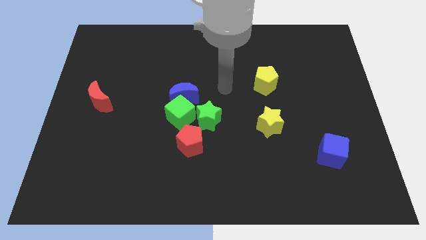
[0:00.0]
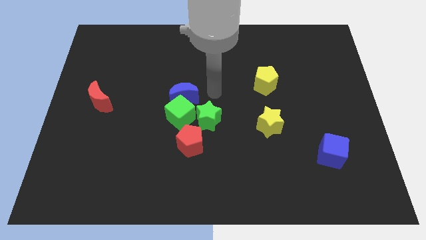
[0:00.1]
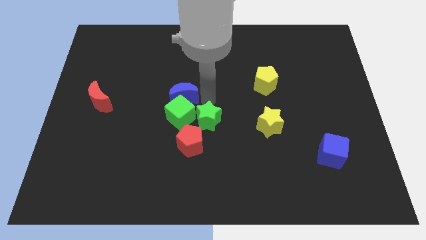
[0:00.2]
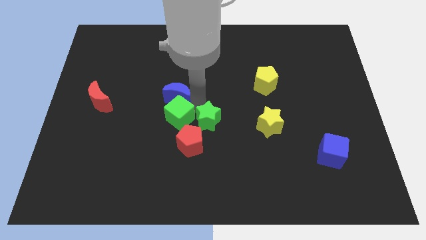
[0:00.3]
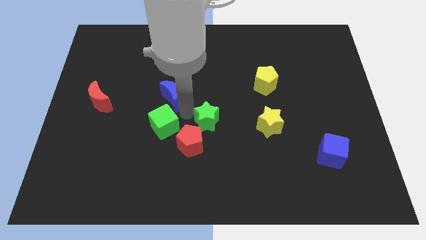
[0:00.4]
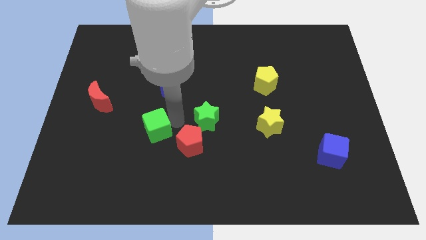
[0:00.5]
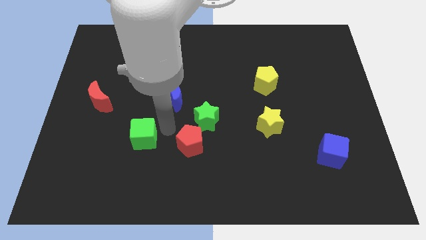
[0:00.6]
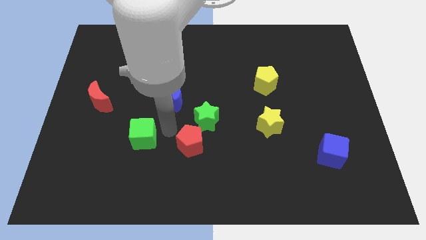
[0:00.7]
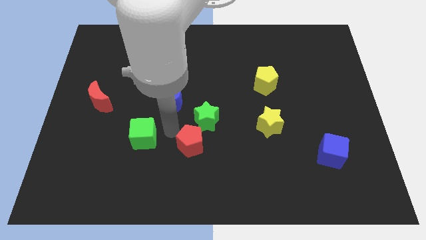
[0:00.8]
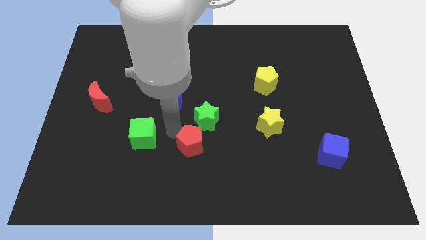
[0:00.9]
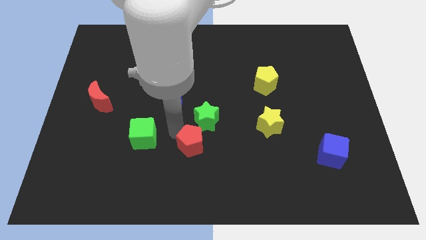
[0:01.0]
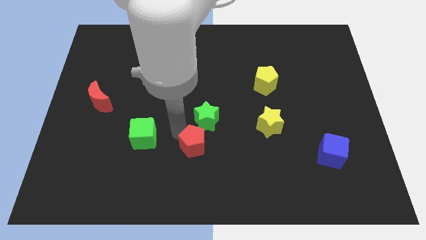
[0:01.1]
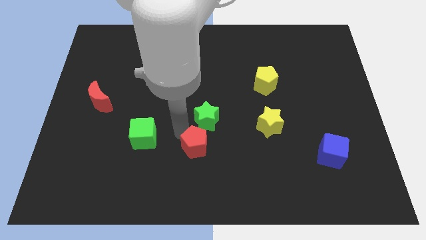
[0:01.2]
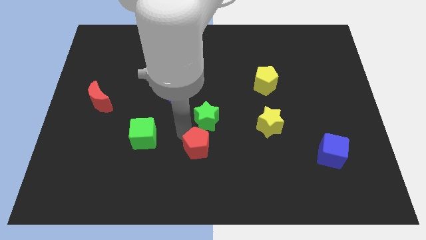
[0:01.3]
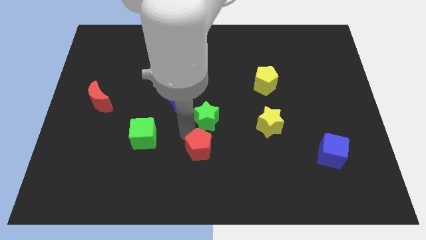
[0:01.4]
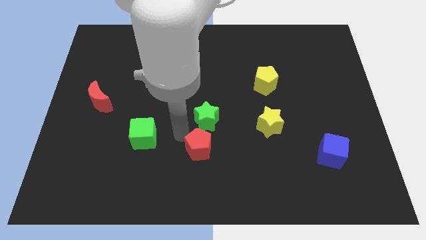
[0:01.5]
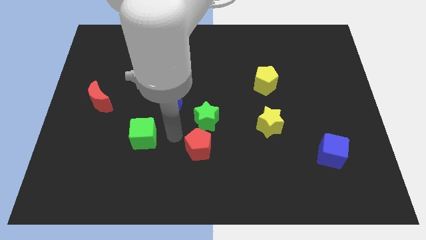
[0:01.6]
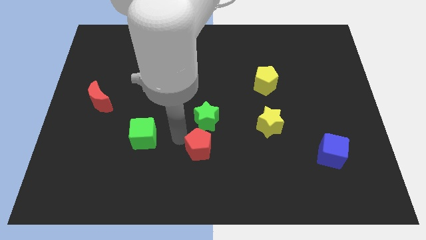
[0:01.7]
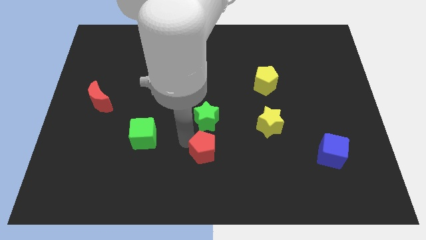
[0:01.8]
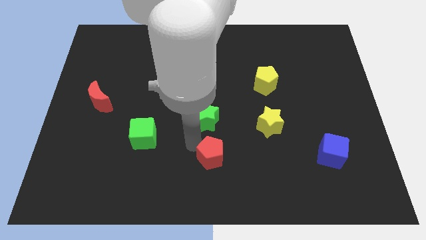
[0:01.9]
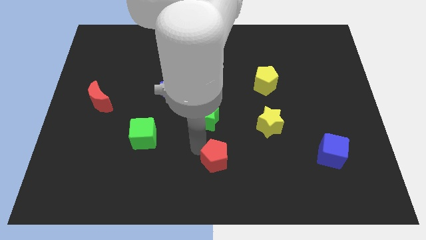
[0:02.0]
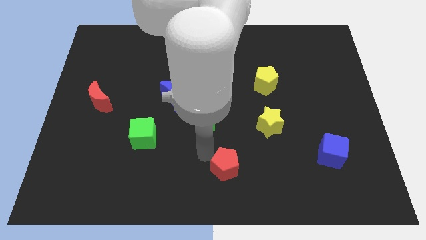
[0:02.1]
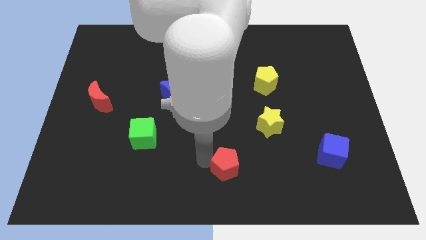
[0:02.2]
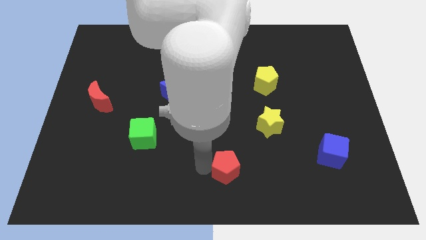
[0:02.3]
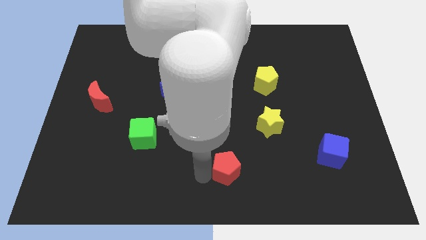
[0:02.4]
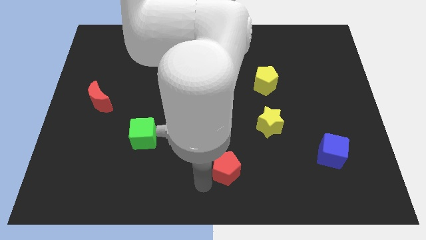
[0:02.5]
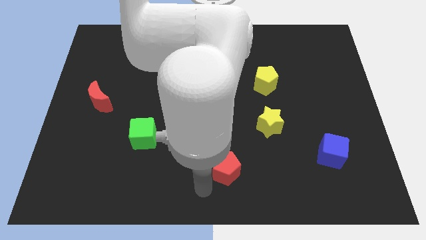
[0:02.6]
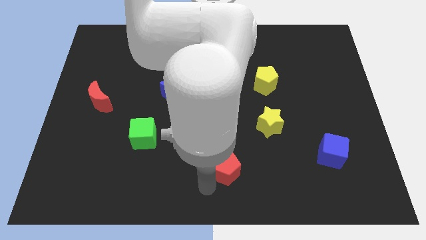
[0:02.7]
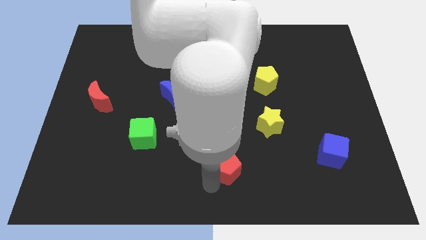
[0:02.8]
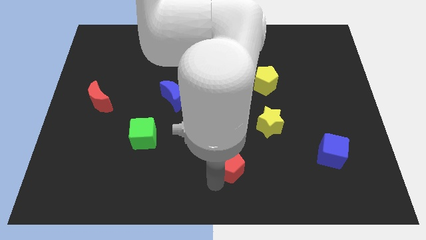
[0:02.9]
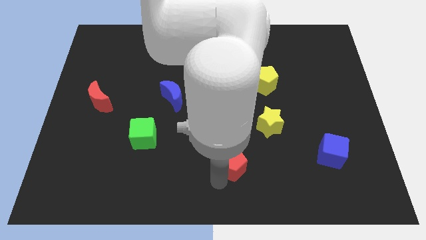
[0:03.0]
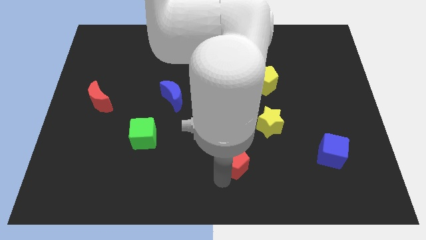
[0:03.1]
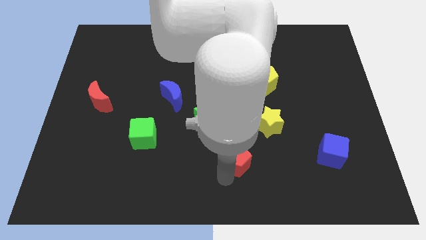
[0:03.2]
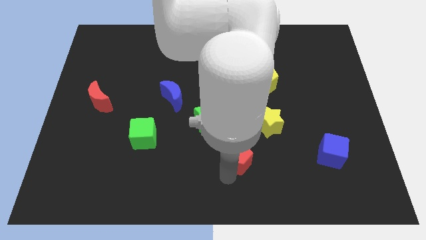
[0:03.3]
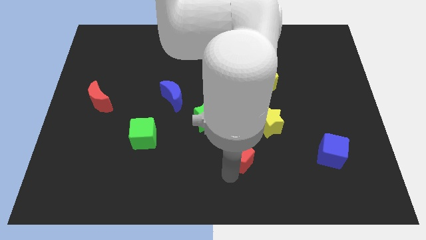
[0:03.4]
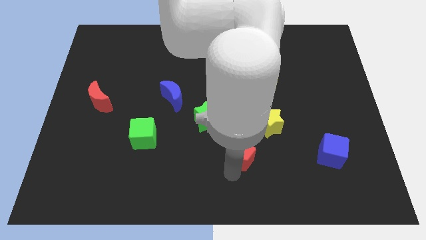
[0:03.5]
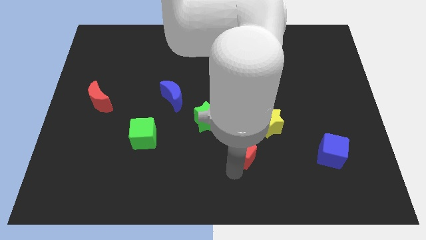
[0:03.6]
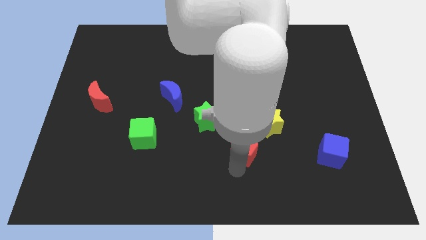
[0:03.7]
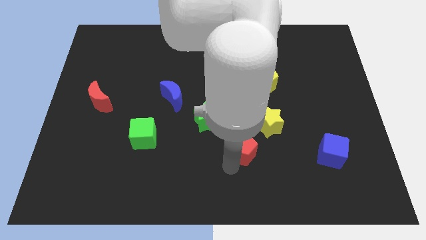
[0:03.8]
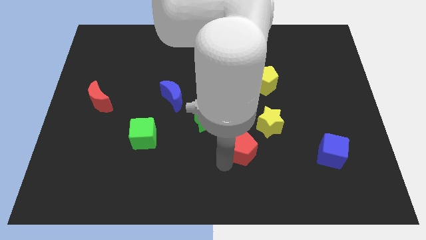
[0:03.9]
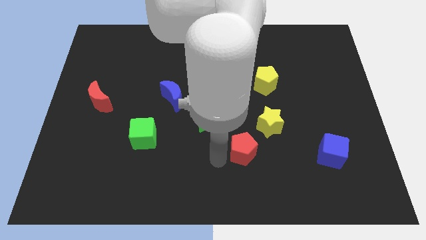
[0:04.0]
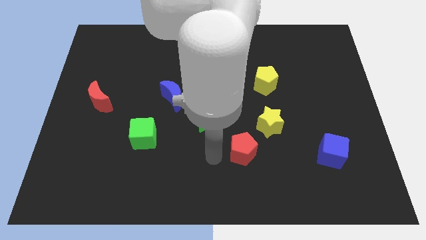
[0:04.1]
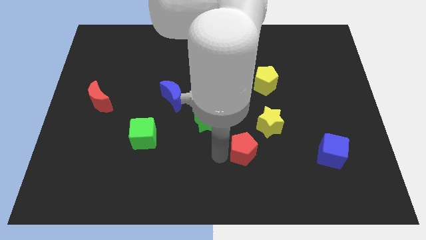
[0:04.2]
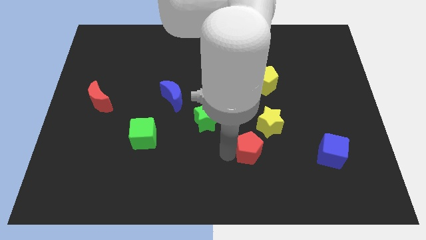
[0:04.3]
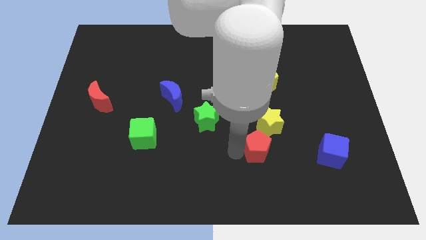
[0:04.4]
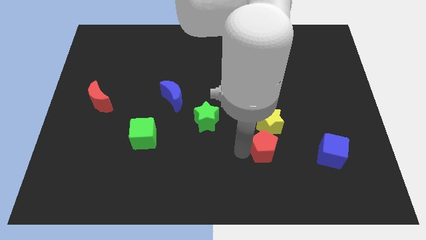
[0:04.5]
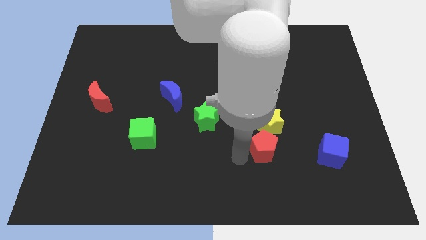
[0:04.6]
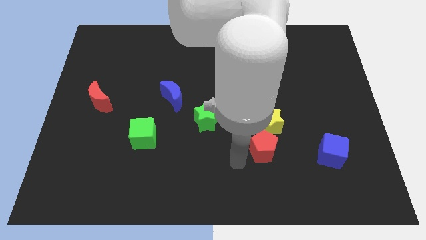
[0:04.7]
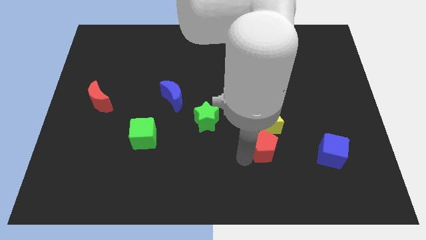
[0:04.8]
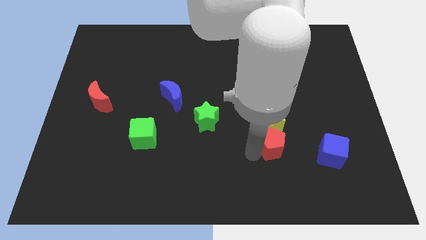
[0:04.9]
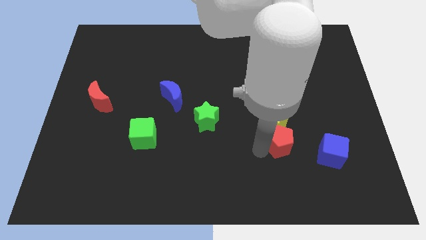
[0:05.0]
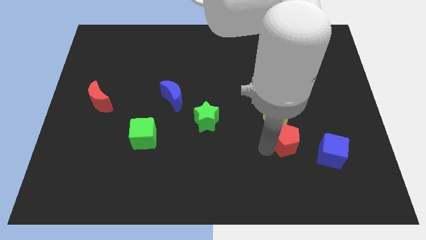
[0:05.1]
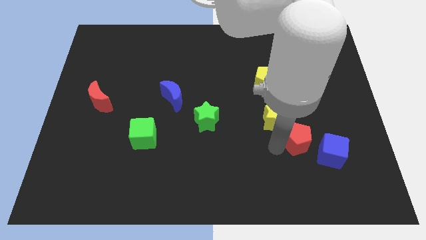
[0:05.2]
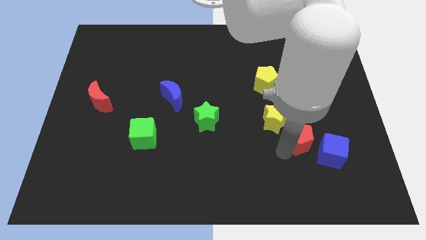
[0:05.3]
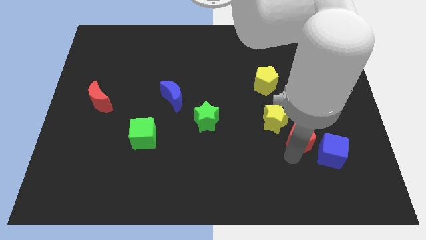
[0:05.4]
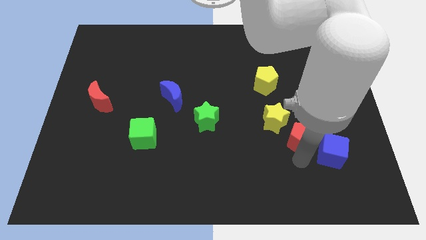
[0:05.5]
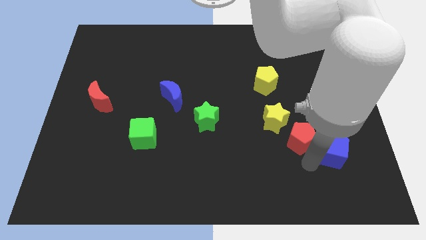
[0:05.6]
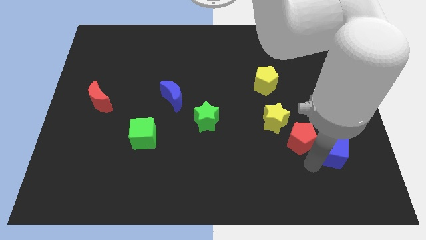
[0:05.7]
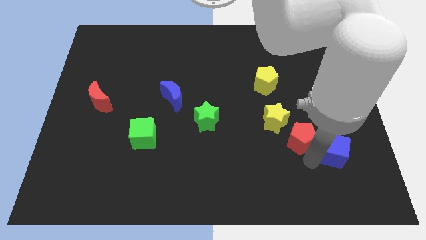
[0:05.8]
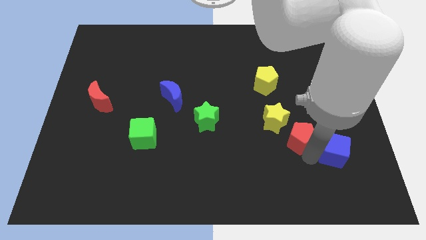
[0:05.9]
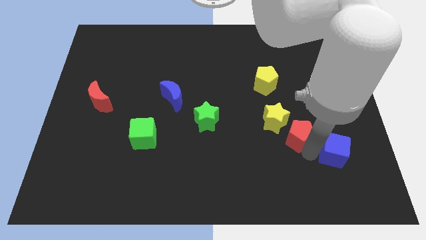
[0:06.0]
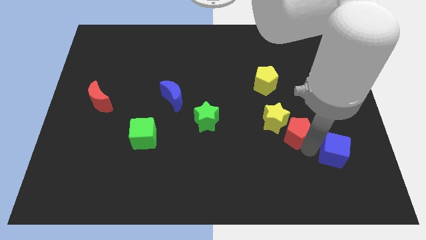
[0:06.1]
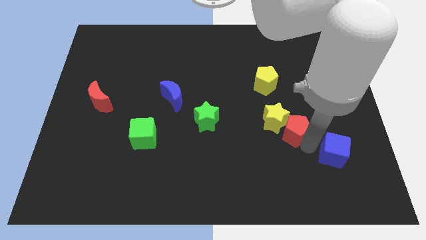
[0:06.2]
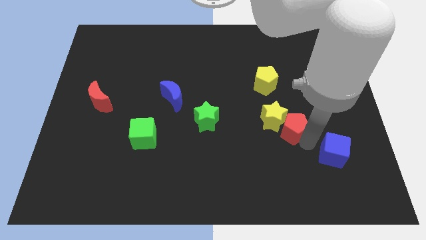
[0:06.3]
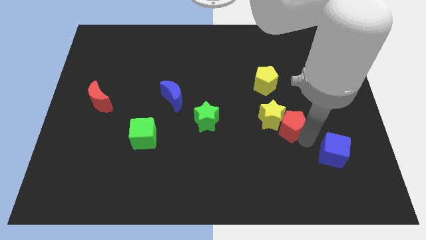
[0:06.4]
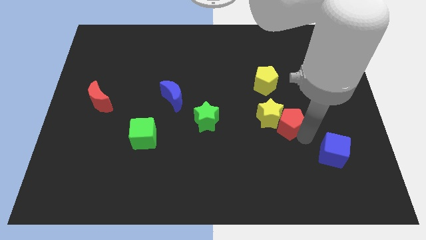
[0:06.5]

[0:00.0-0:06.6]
slide the red pentagon up and to the right diagonally somewhat

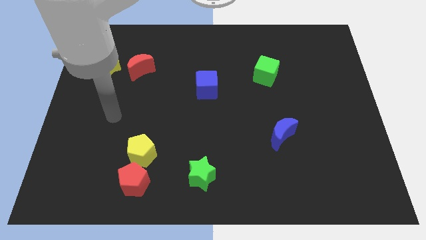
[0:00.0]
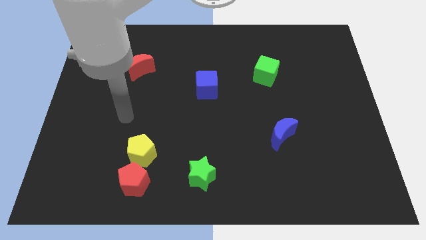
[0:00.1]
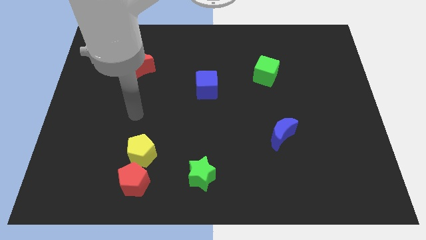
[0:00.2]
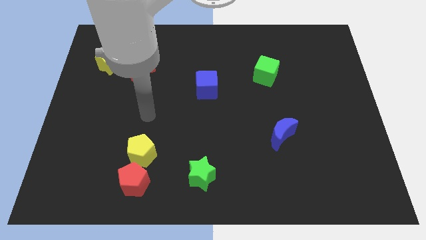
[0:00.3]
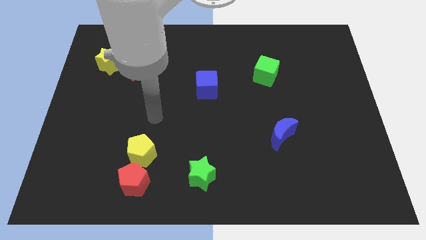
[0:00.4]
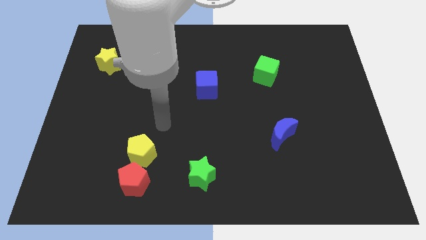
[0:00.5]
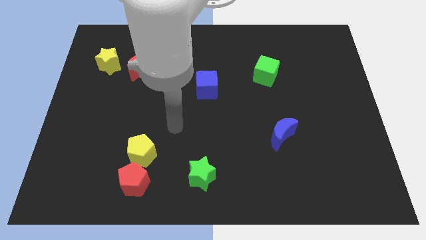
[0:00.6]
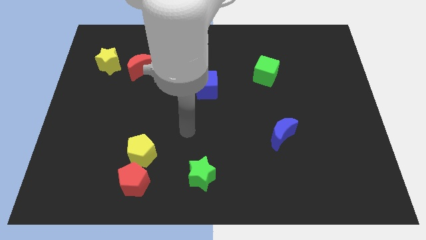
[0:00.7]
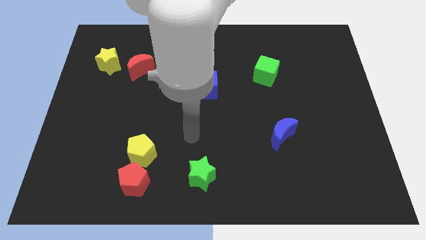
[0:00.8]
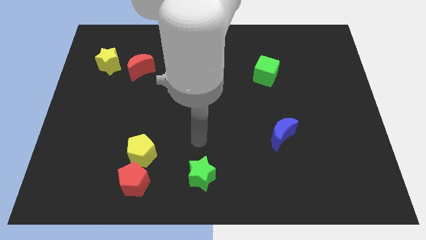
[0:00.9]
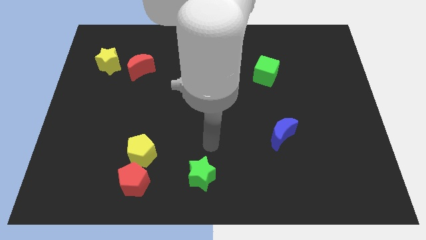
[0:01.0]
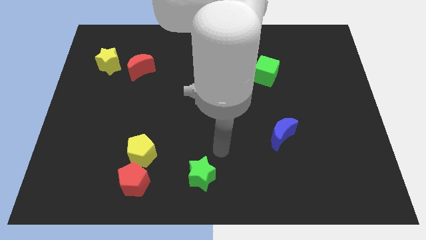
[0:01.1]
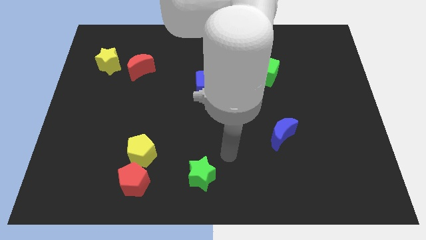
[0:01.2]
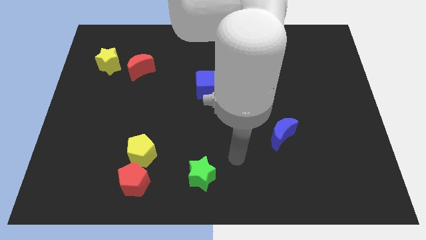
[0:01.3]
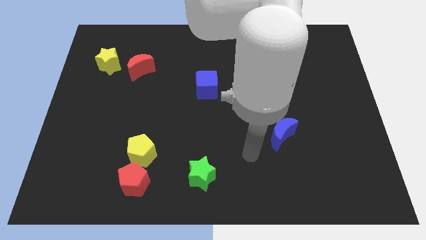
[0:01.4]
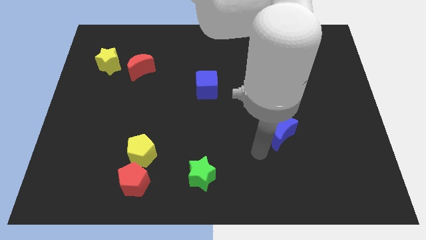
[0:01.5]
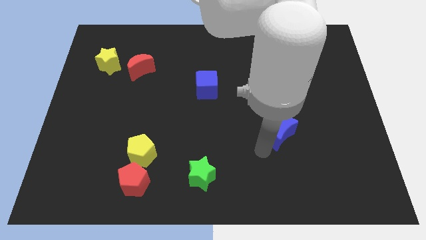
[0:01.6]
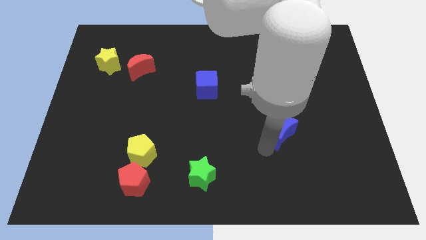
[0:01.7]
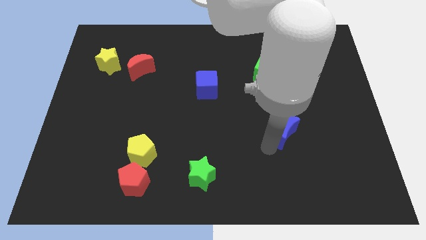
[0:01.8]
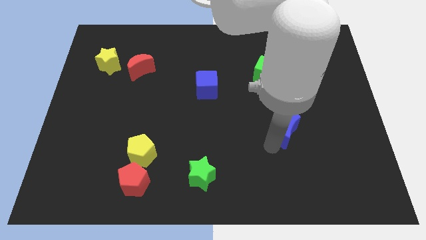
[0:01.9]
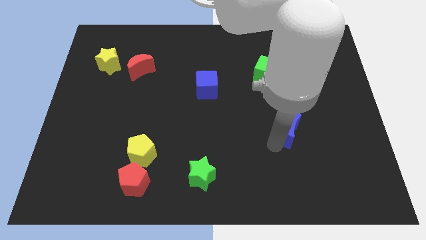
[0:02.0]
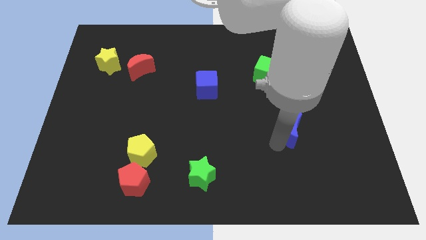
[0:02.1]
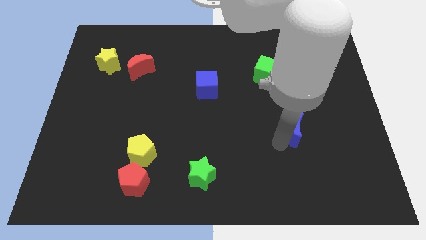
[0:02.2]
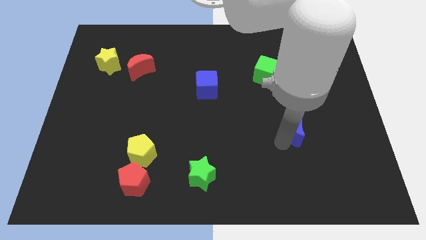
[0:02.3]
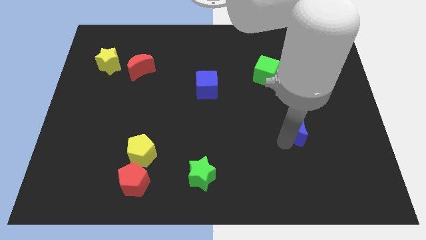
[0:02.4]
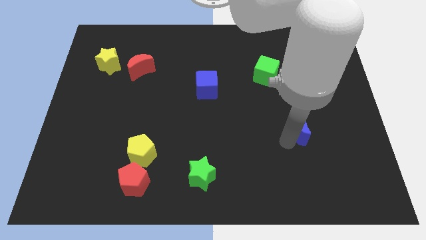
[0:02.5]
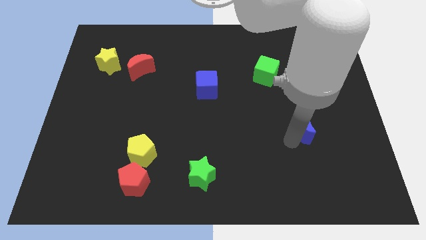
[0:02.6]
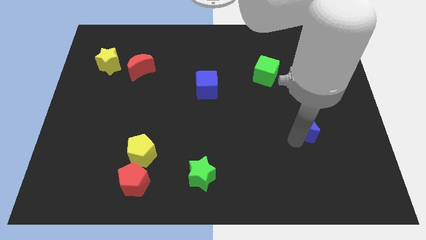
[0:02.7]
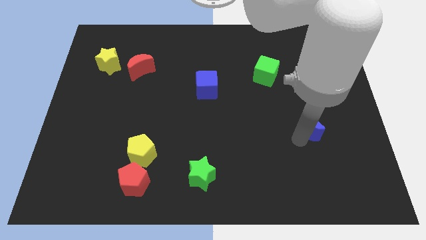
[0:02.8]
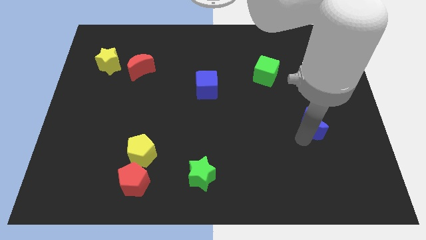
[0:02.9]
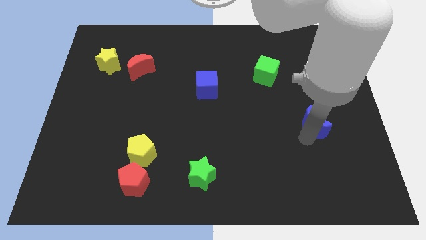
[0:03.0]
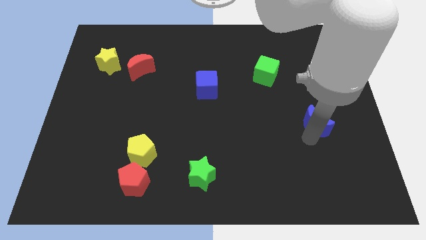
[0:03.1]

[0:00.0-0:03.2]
move the blue moon upwards and right diagonally a little
